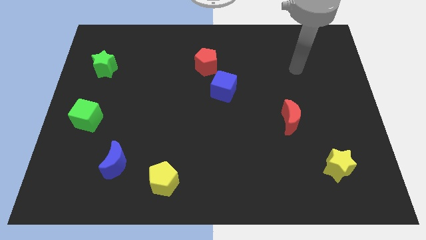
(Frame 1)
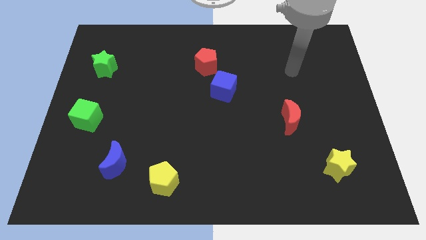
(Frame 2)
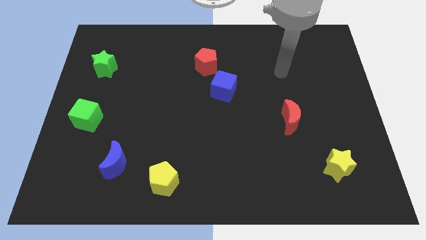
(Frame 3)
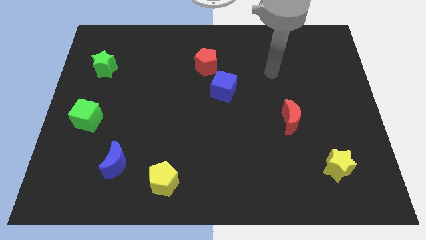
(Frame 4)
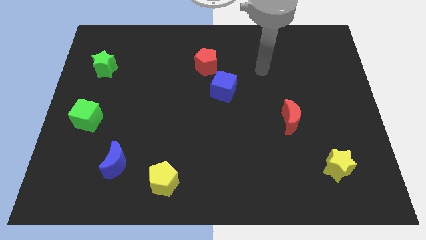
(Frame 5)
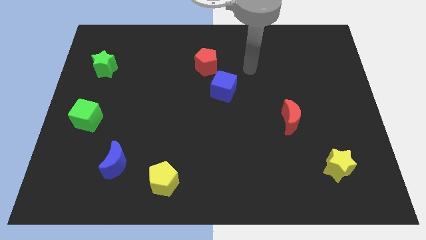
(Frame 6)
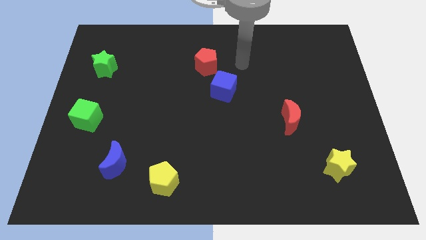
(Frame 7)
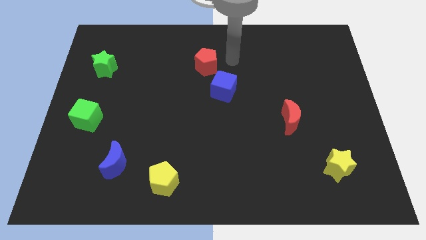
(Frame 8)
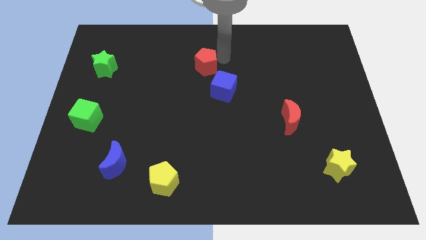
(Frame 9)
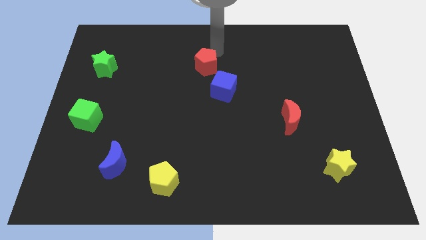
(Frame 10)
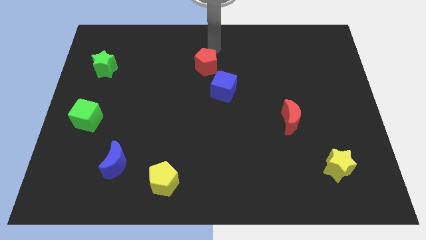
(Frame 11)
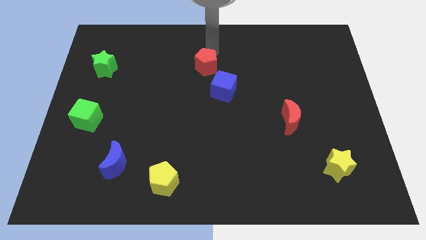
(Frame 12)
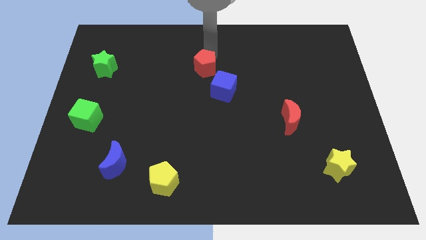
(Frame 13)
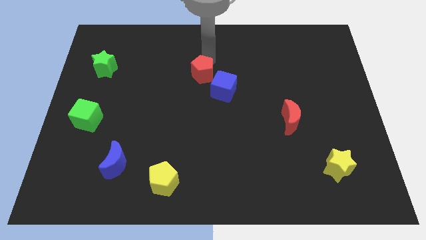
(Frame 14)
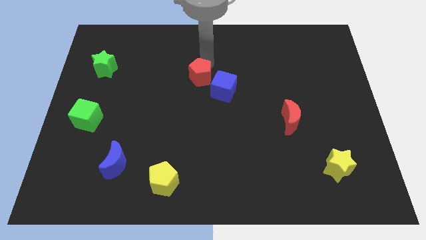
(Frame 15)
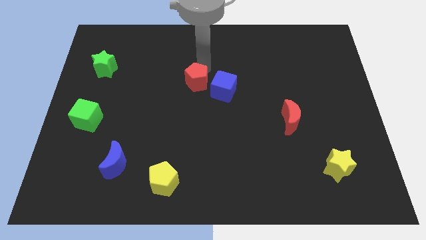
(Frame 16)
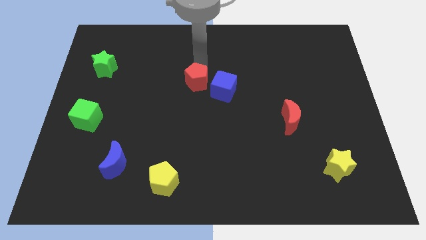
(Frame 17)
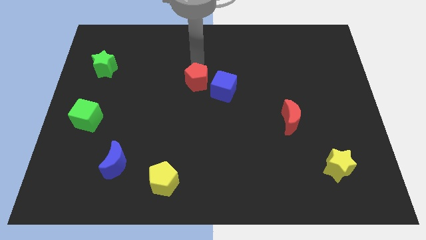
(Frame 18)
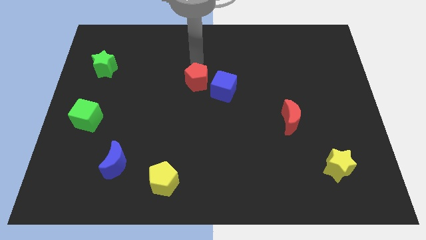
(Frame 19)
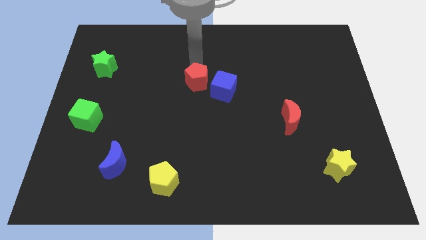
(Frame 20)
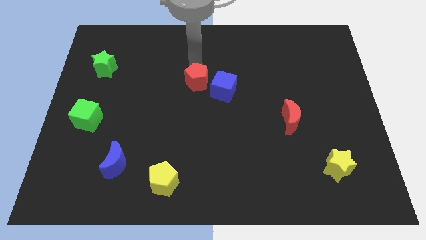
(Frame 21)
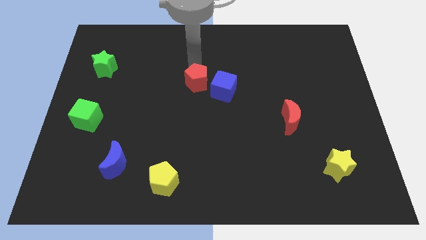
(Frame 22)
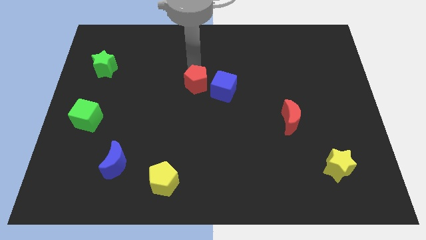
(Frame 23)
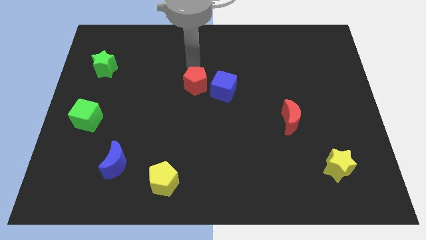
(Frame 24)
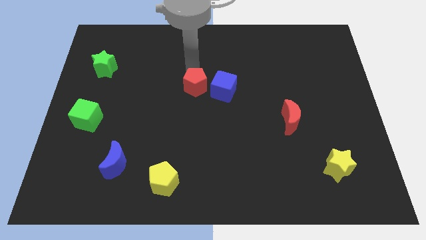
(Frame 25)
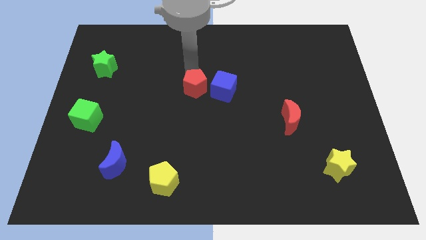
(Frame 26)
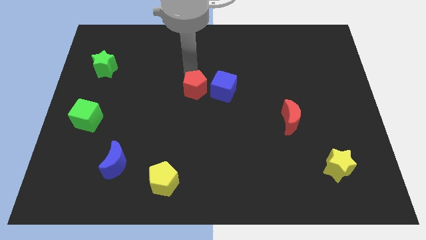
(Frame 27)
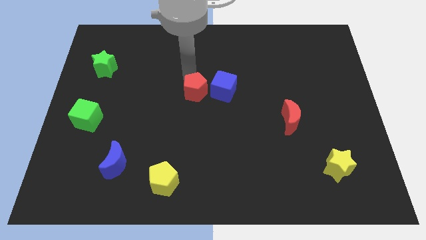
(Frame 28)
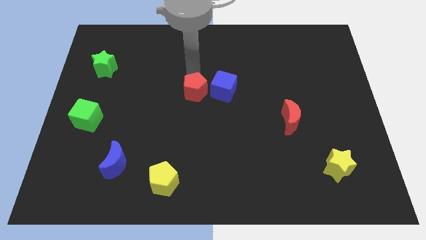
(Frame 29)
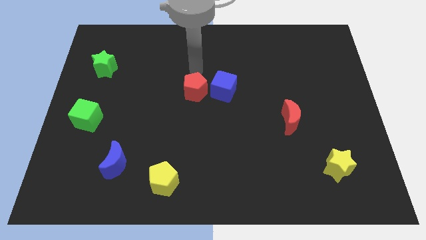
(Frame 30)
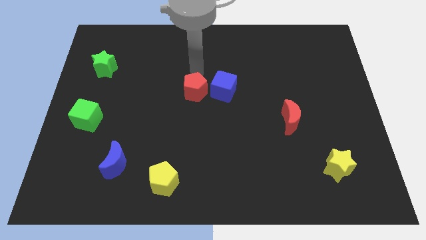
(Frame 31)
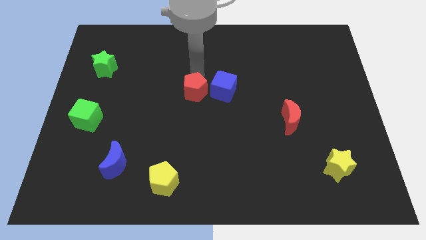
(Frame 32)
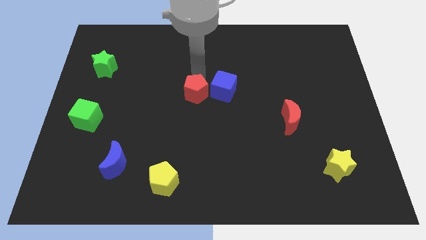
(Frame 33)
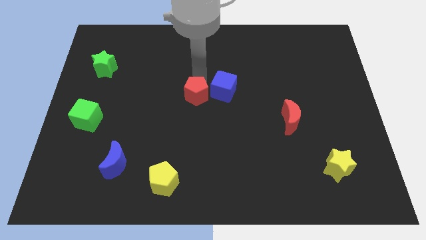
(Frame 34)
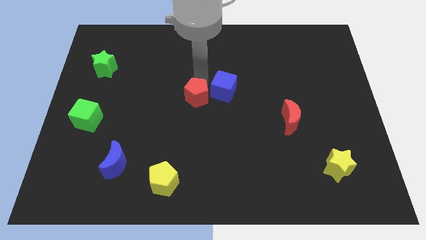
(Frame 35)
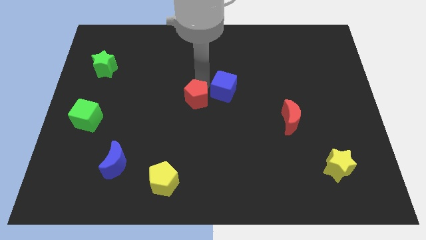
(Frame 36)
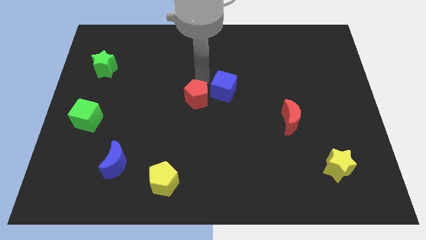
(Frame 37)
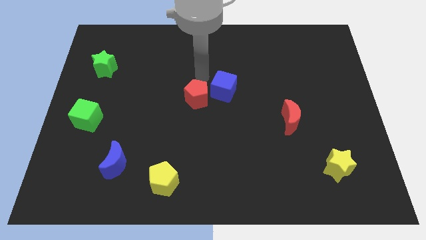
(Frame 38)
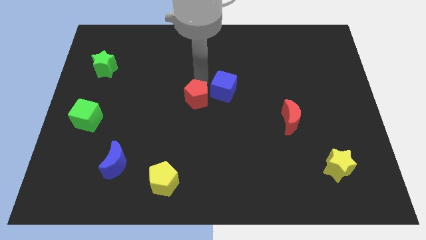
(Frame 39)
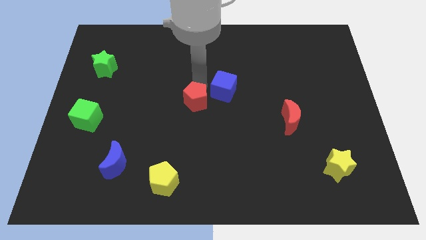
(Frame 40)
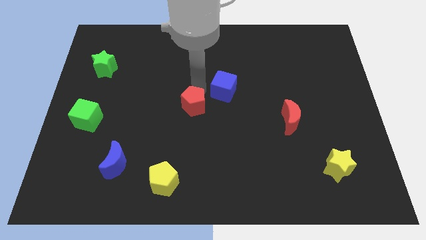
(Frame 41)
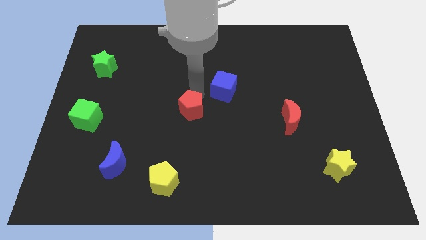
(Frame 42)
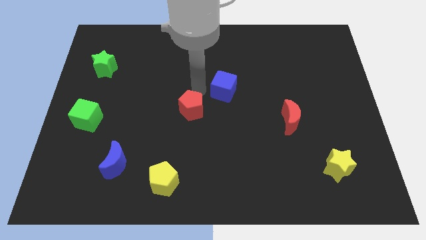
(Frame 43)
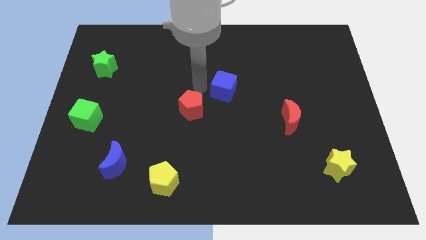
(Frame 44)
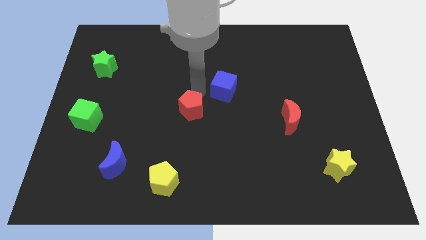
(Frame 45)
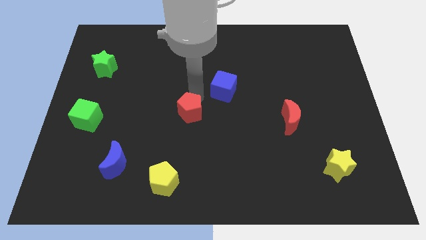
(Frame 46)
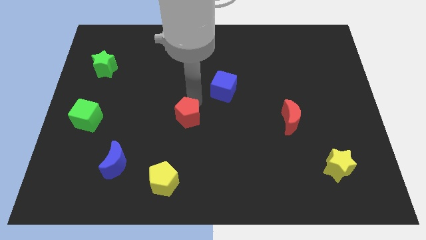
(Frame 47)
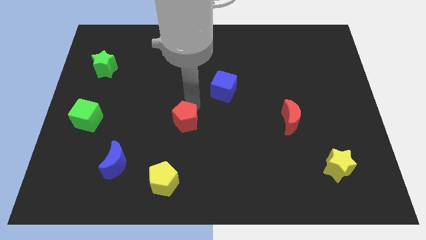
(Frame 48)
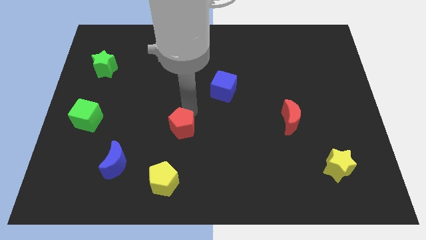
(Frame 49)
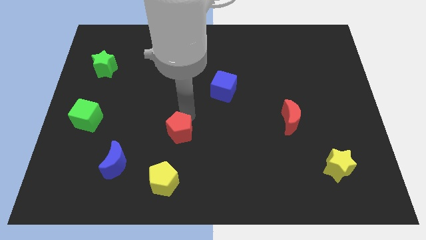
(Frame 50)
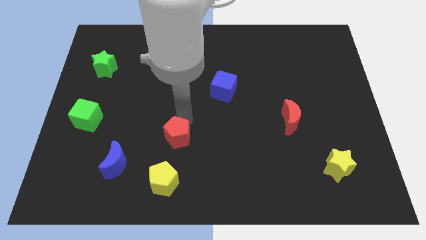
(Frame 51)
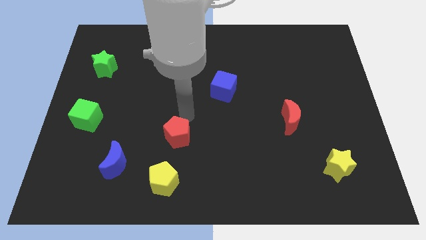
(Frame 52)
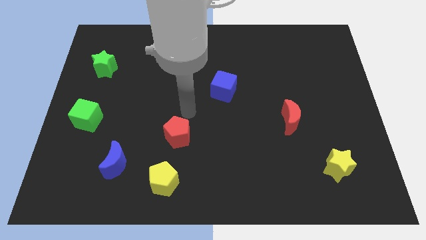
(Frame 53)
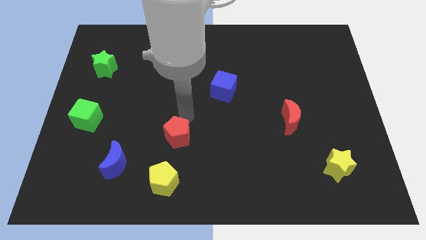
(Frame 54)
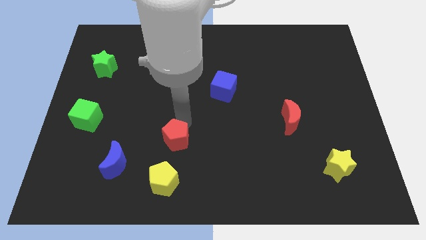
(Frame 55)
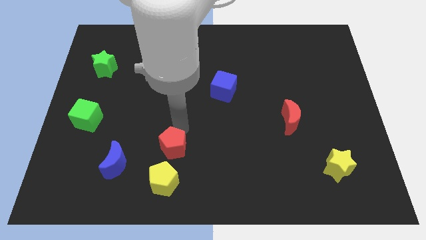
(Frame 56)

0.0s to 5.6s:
slide the red pentagon to the right of the blue moon

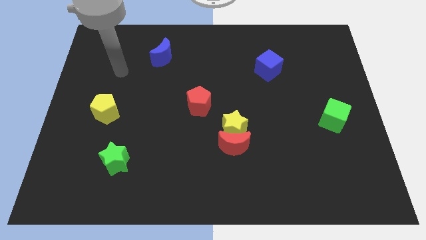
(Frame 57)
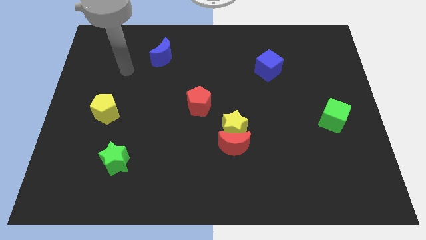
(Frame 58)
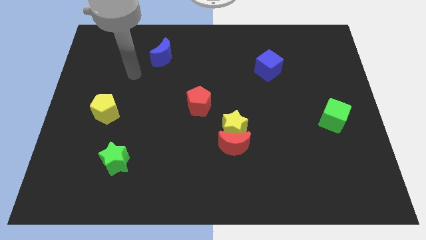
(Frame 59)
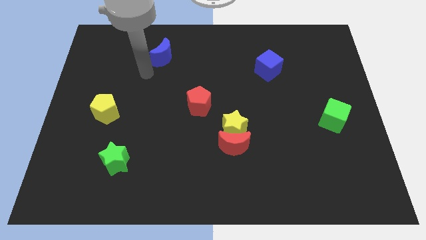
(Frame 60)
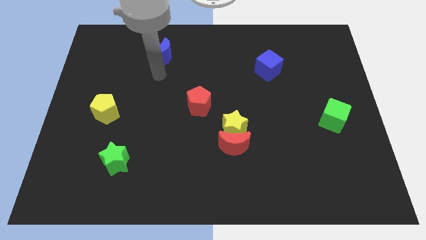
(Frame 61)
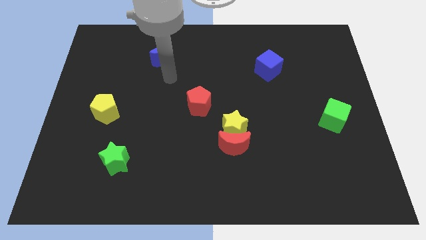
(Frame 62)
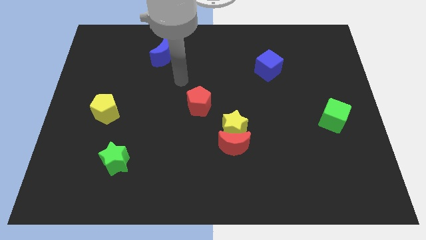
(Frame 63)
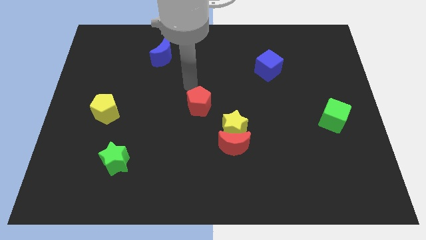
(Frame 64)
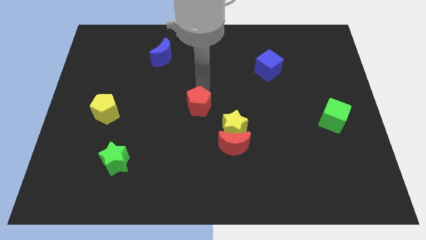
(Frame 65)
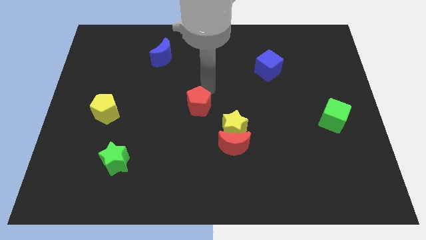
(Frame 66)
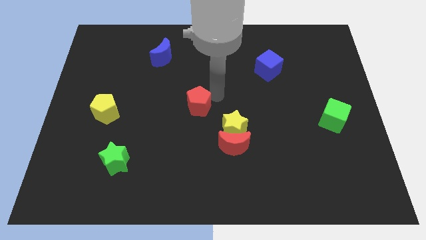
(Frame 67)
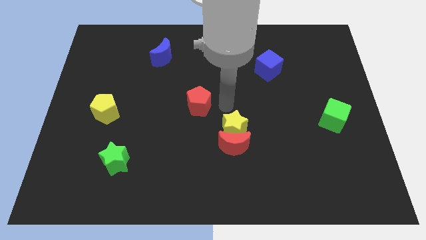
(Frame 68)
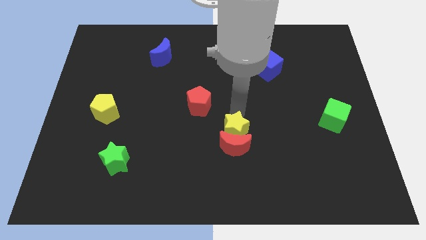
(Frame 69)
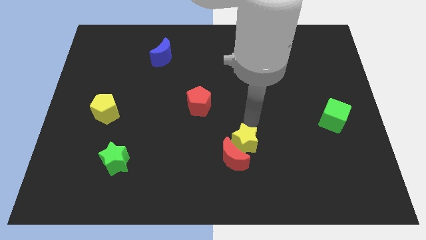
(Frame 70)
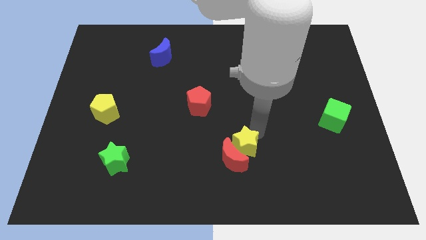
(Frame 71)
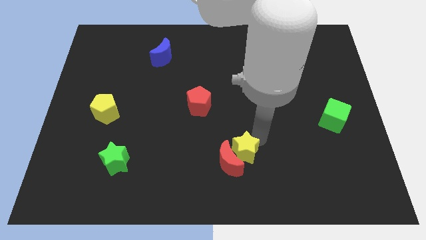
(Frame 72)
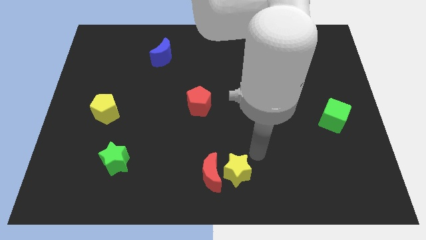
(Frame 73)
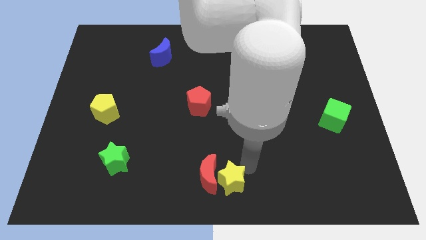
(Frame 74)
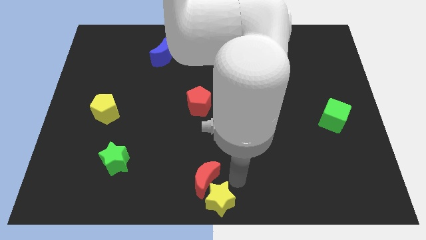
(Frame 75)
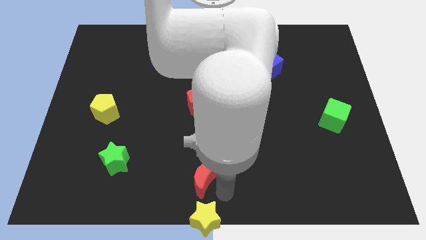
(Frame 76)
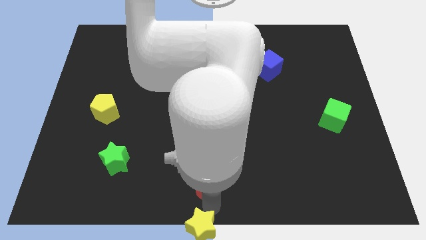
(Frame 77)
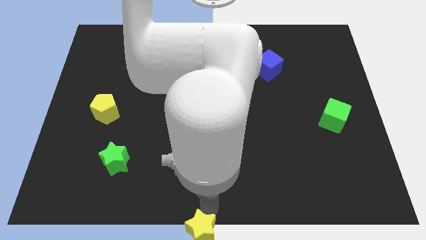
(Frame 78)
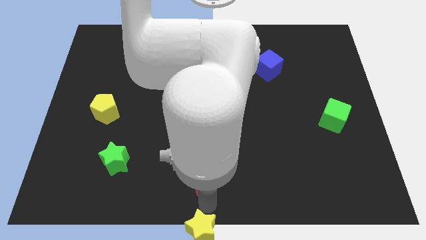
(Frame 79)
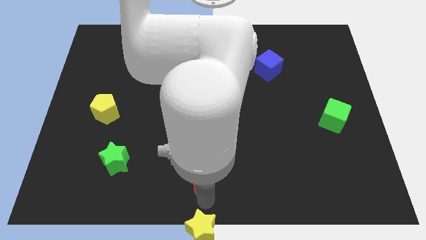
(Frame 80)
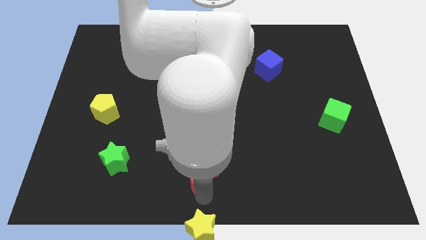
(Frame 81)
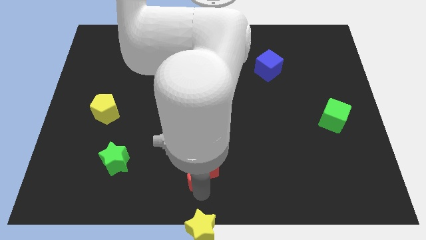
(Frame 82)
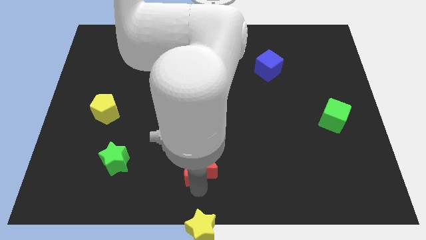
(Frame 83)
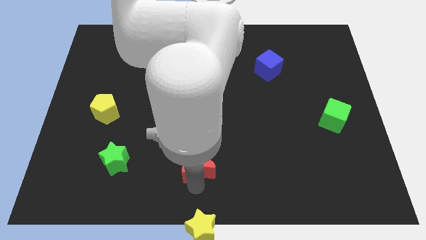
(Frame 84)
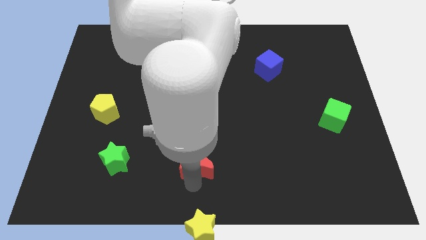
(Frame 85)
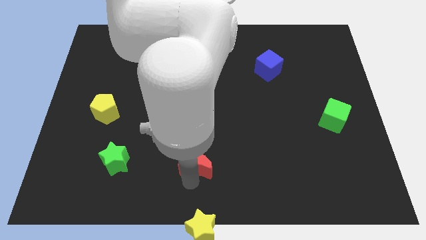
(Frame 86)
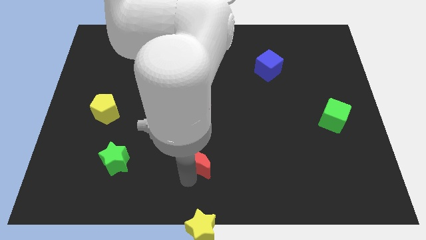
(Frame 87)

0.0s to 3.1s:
push the red moon below the red pentagon
